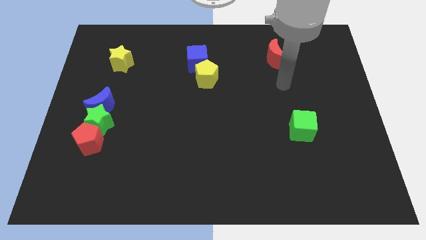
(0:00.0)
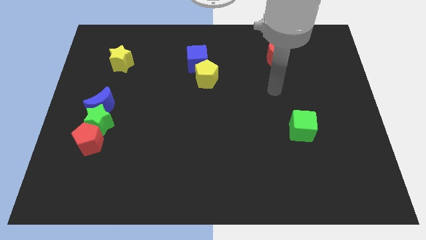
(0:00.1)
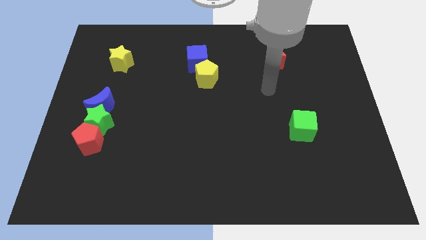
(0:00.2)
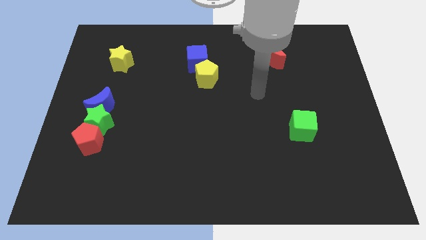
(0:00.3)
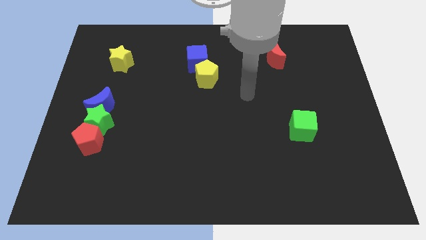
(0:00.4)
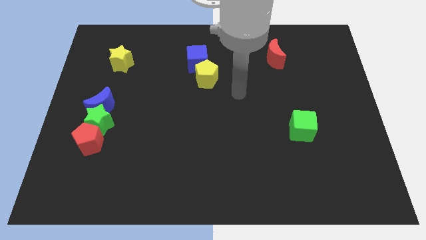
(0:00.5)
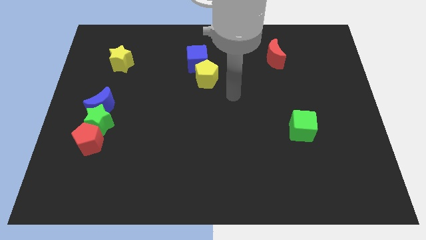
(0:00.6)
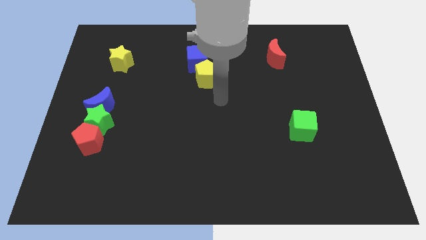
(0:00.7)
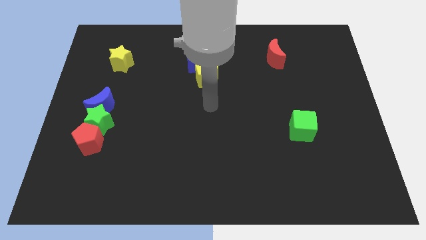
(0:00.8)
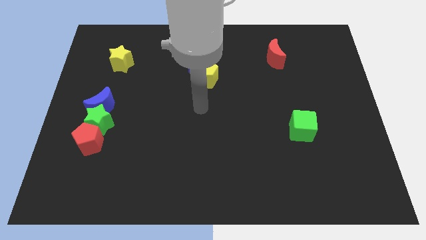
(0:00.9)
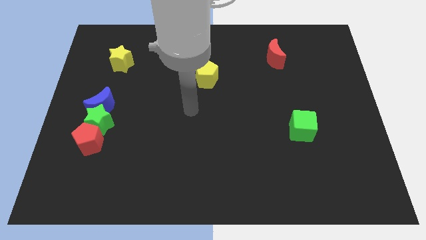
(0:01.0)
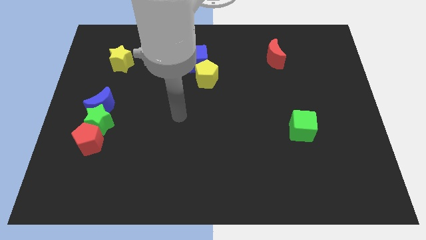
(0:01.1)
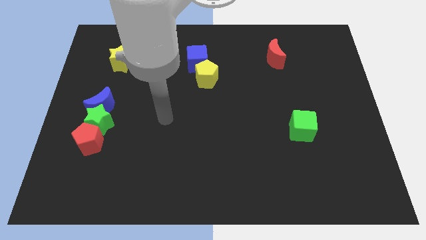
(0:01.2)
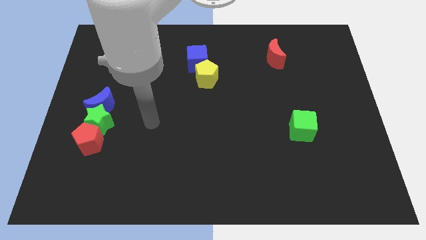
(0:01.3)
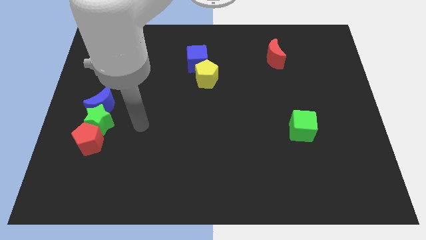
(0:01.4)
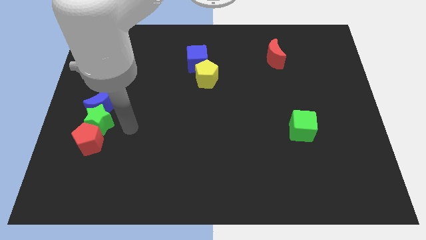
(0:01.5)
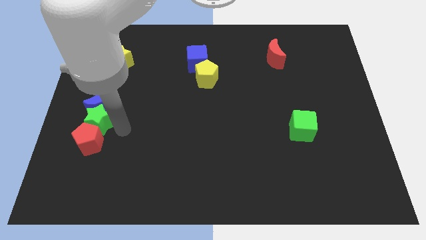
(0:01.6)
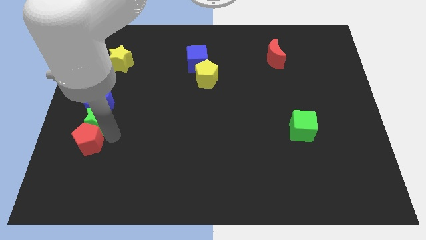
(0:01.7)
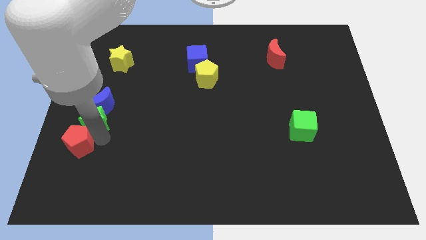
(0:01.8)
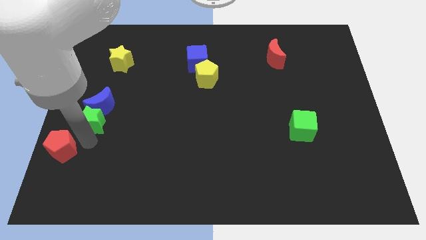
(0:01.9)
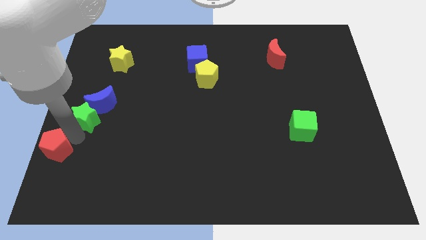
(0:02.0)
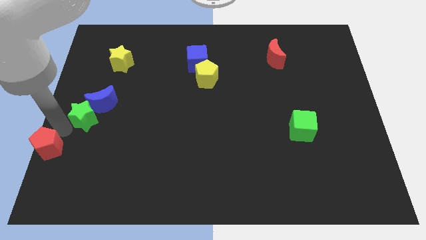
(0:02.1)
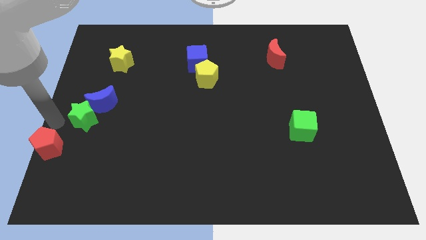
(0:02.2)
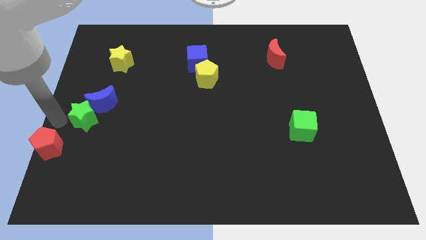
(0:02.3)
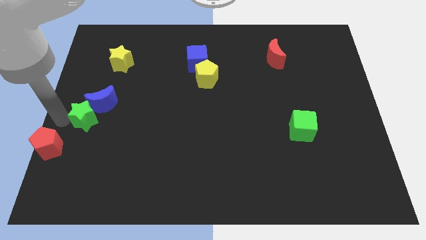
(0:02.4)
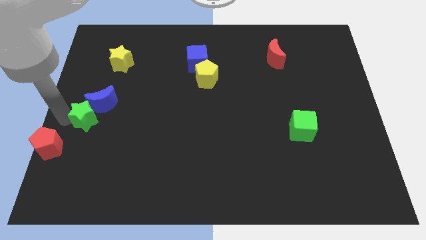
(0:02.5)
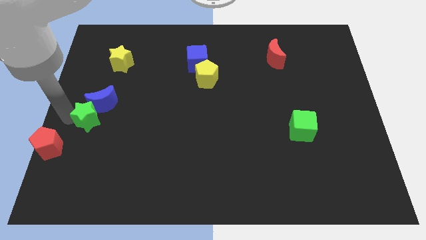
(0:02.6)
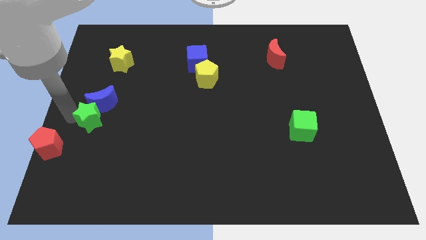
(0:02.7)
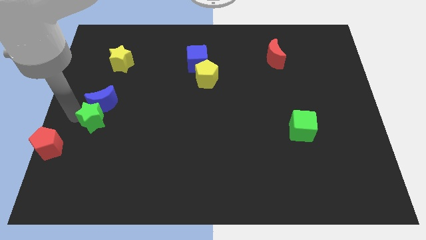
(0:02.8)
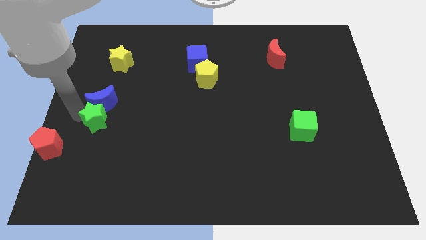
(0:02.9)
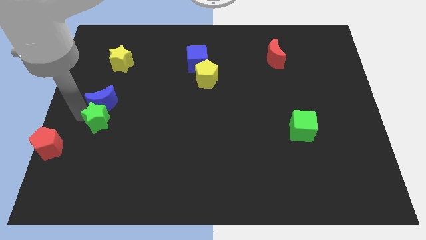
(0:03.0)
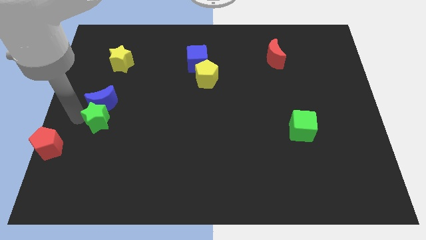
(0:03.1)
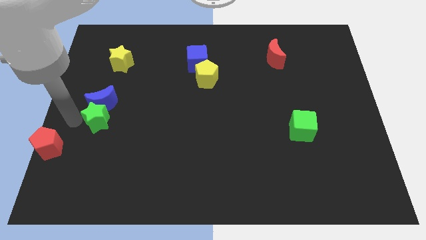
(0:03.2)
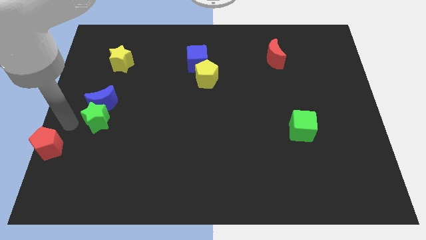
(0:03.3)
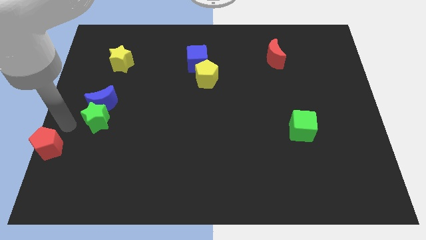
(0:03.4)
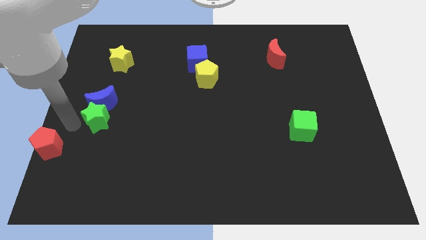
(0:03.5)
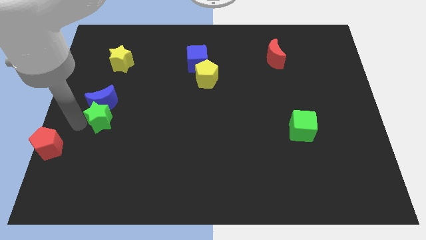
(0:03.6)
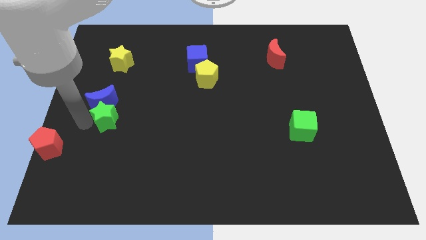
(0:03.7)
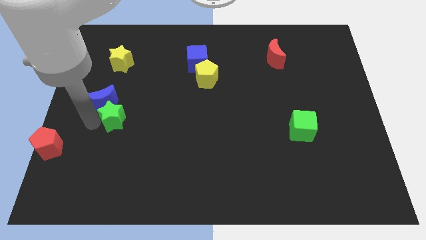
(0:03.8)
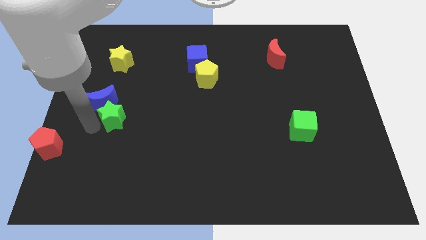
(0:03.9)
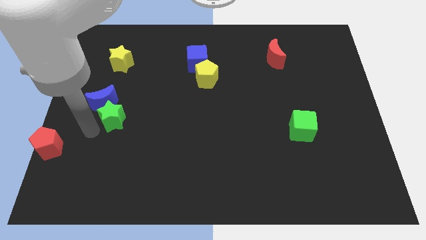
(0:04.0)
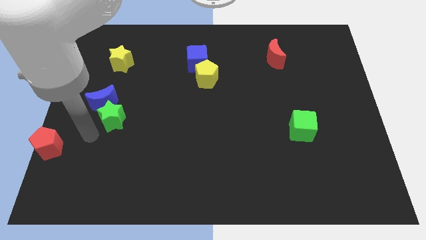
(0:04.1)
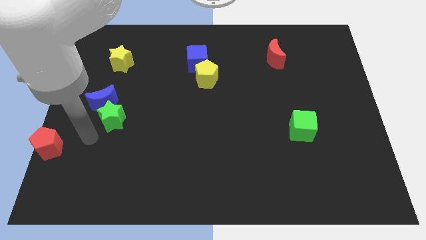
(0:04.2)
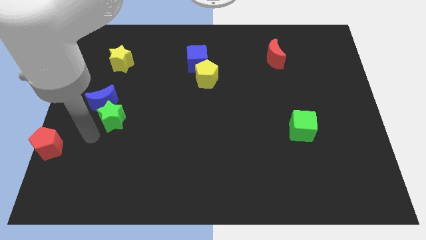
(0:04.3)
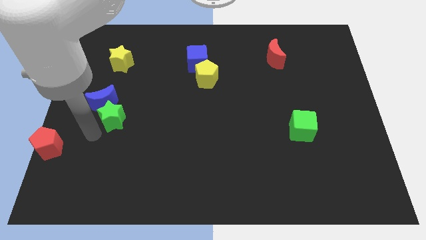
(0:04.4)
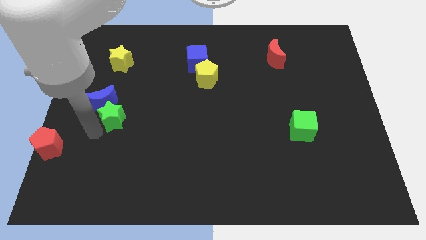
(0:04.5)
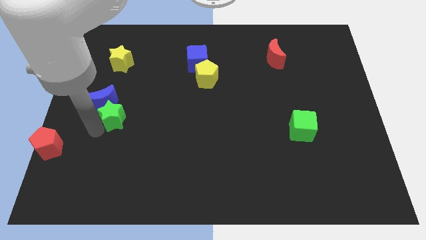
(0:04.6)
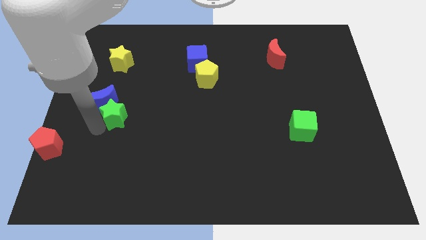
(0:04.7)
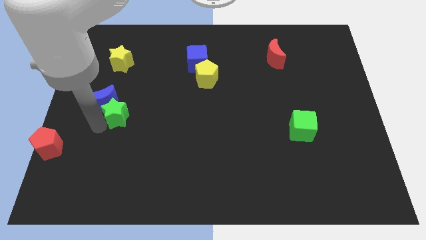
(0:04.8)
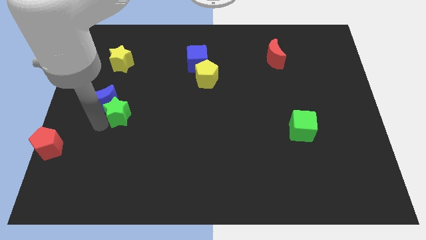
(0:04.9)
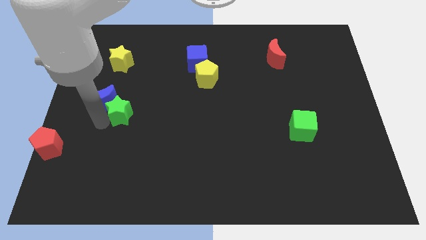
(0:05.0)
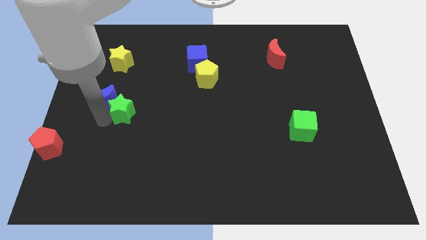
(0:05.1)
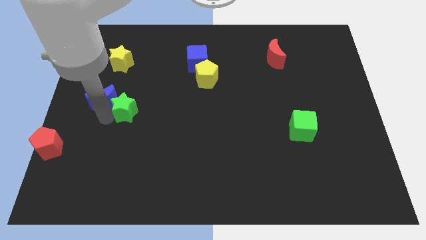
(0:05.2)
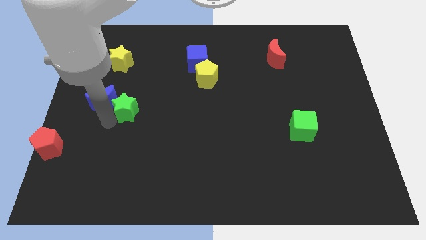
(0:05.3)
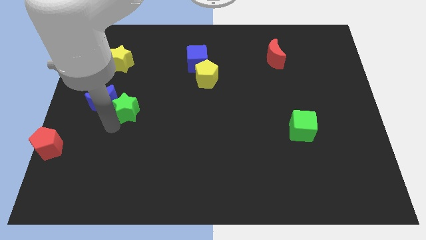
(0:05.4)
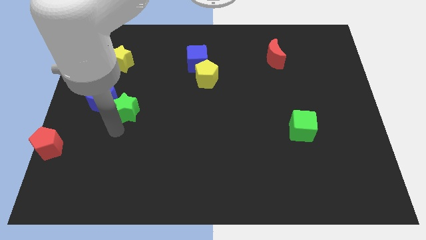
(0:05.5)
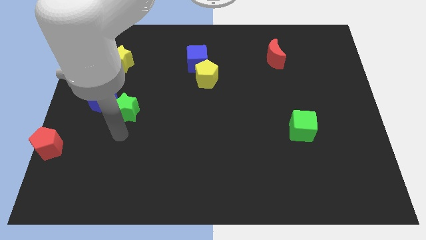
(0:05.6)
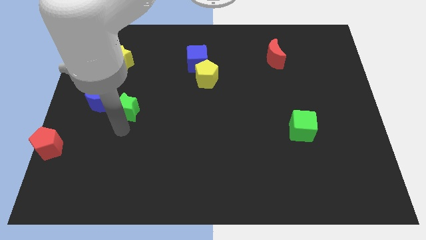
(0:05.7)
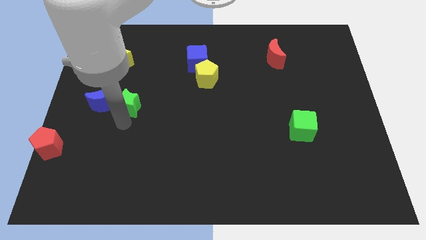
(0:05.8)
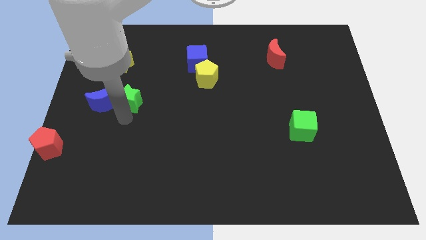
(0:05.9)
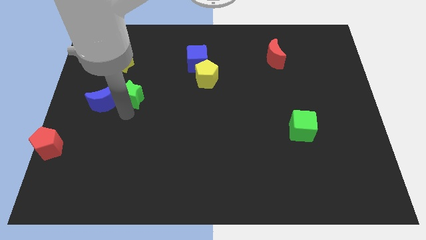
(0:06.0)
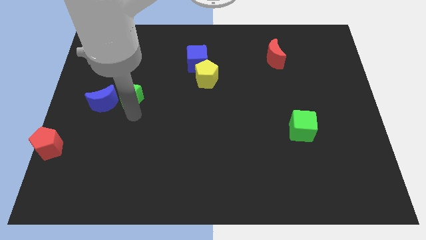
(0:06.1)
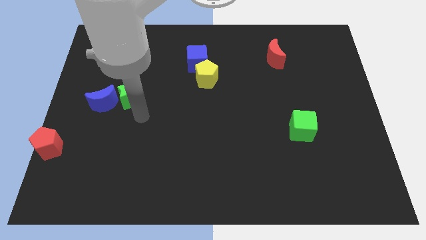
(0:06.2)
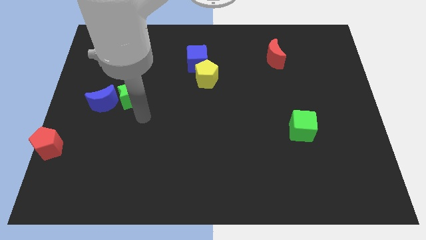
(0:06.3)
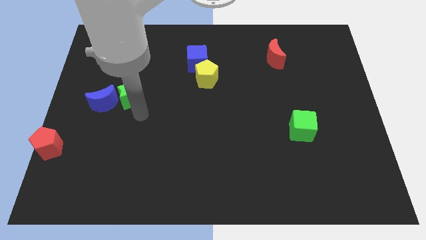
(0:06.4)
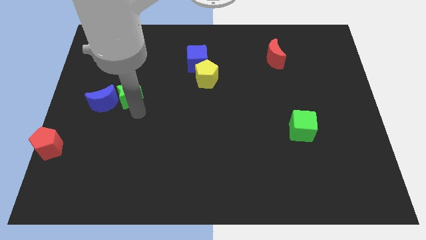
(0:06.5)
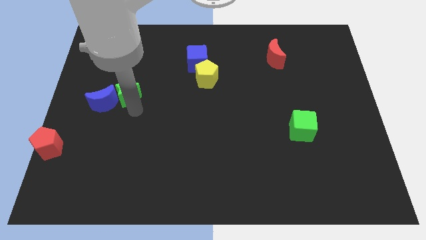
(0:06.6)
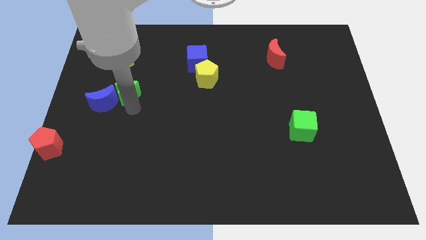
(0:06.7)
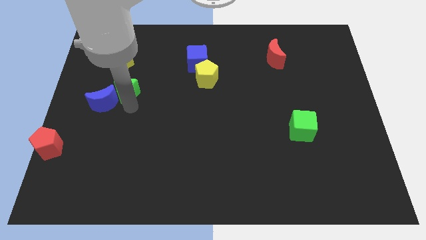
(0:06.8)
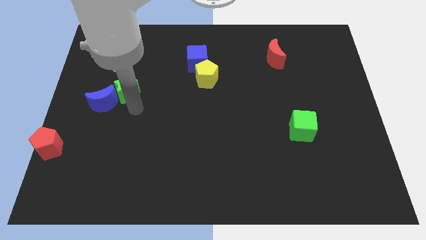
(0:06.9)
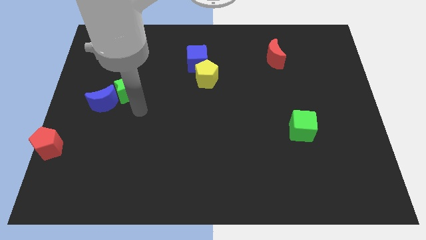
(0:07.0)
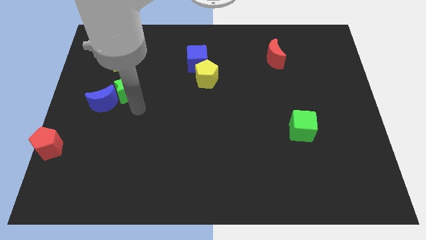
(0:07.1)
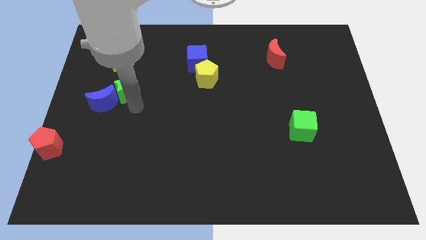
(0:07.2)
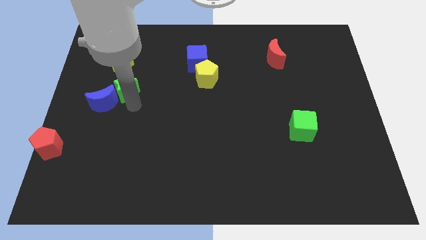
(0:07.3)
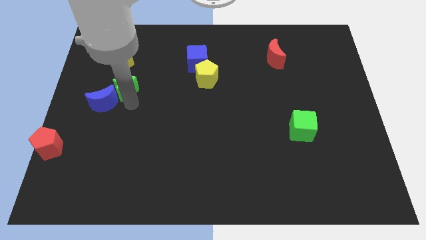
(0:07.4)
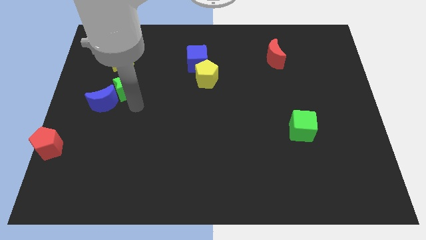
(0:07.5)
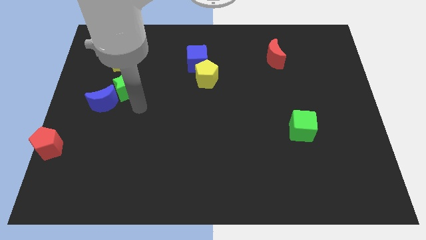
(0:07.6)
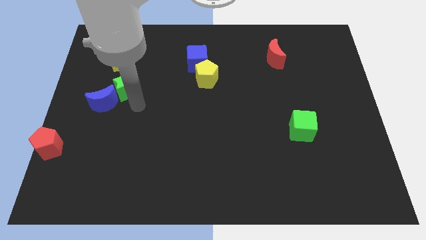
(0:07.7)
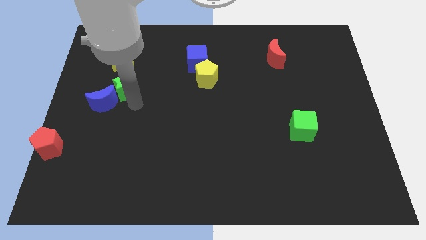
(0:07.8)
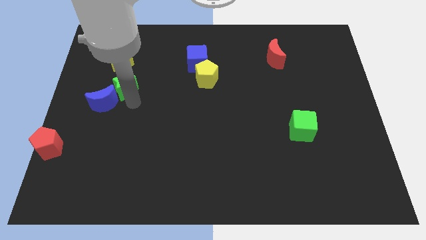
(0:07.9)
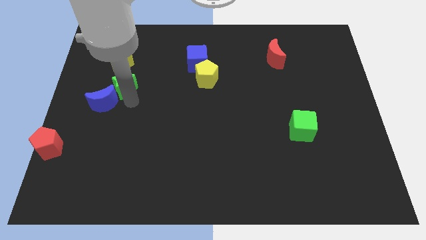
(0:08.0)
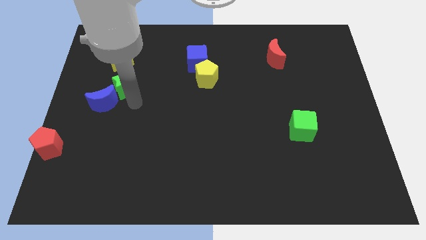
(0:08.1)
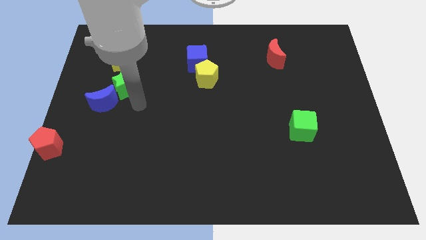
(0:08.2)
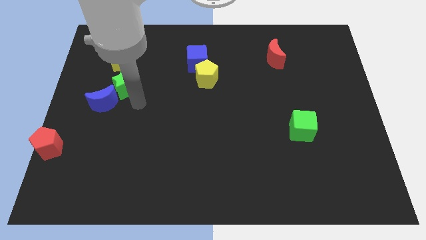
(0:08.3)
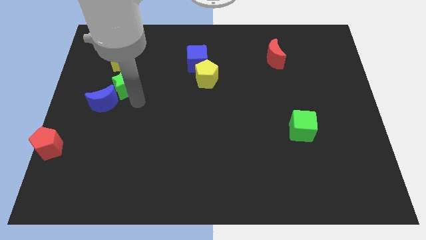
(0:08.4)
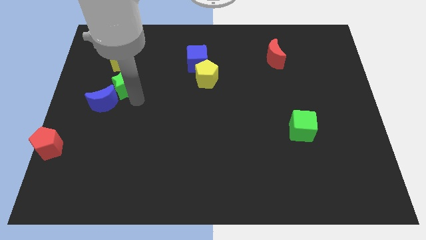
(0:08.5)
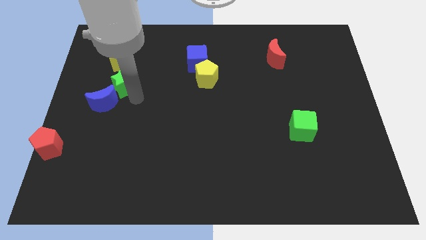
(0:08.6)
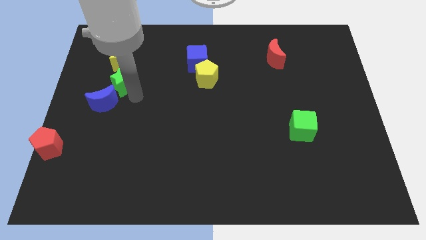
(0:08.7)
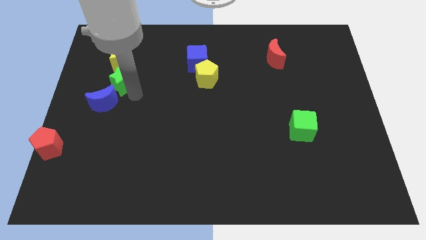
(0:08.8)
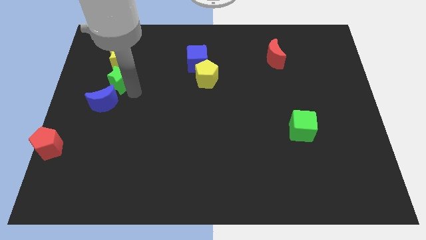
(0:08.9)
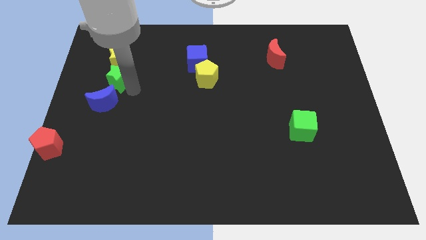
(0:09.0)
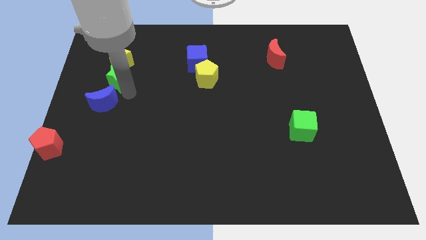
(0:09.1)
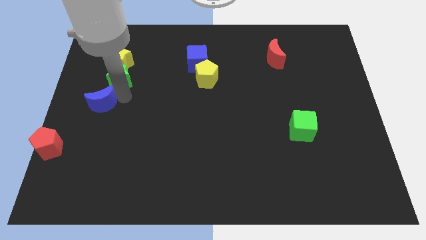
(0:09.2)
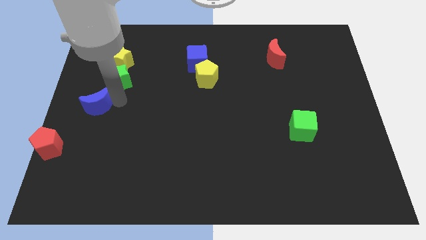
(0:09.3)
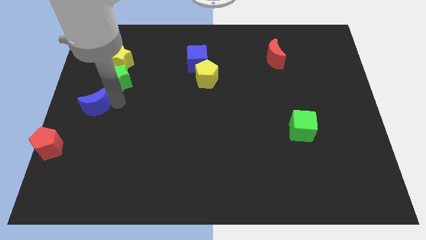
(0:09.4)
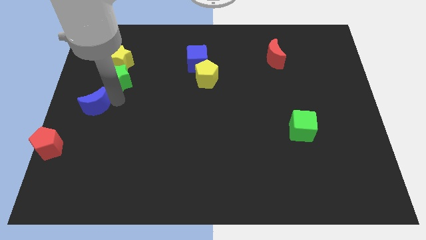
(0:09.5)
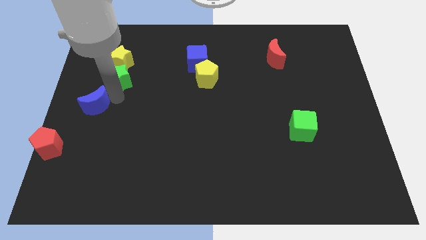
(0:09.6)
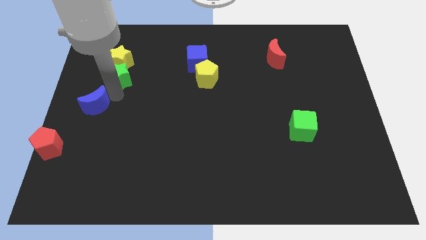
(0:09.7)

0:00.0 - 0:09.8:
slide the green star close to the yellow star
